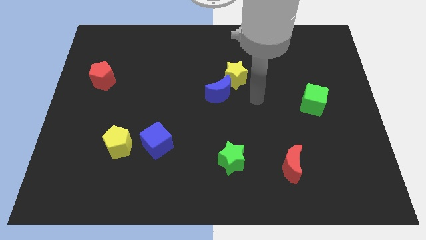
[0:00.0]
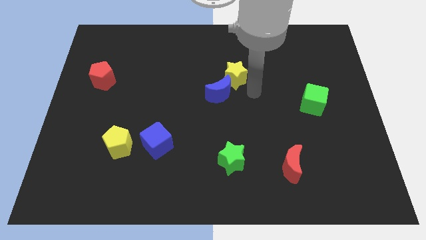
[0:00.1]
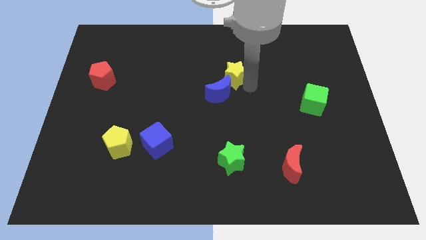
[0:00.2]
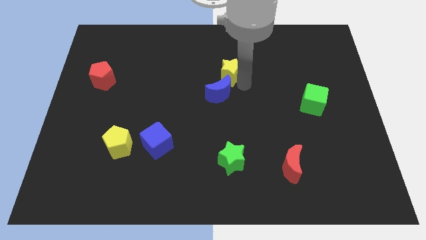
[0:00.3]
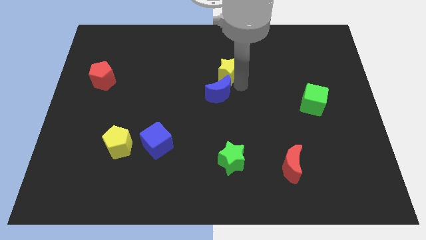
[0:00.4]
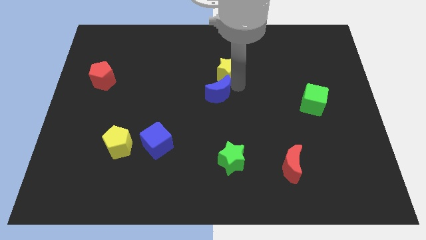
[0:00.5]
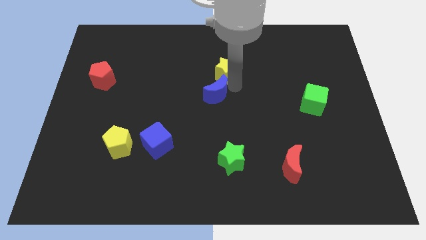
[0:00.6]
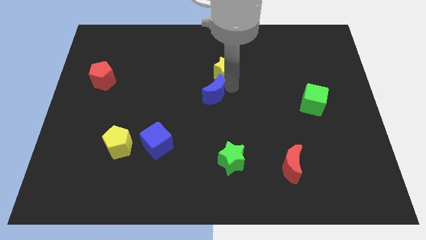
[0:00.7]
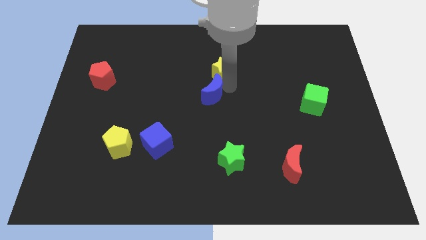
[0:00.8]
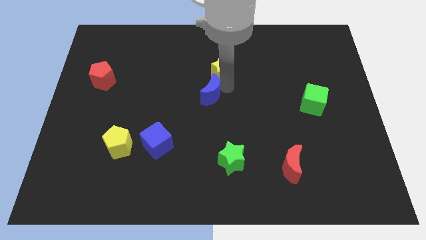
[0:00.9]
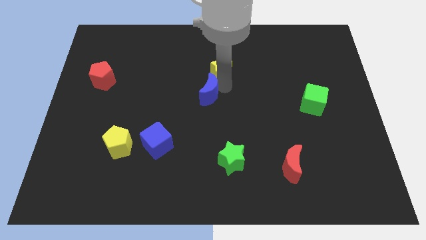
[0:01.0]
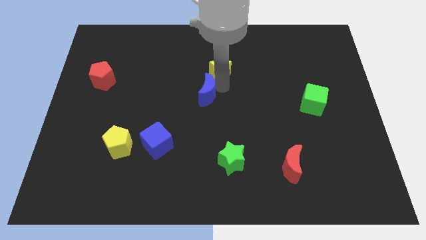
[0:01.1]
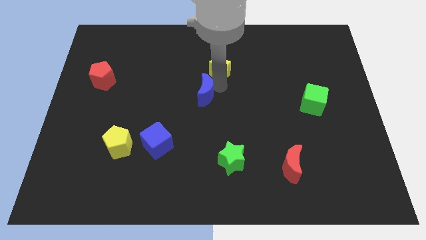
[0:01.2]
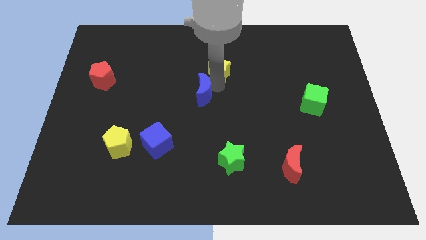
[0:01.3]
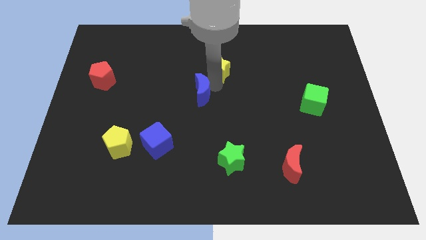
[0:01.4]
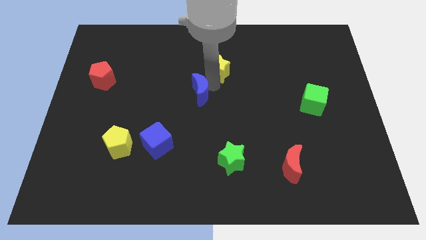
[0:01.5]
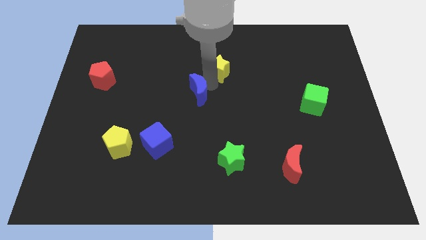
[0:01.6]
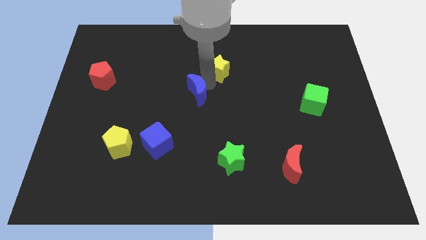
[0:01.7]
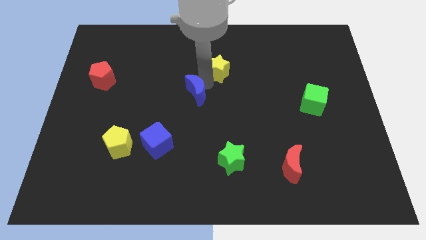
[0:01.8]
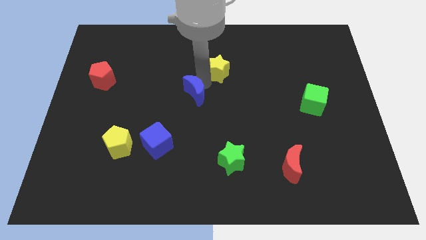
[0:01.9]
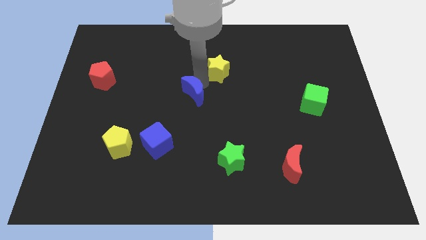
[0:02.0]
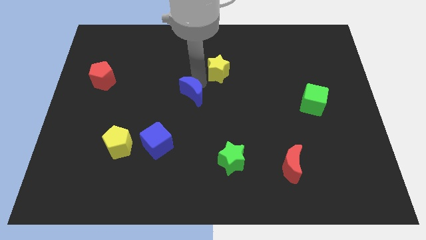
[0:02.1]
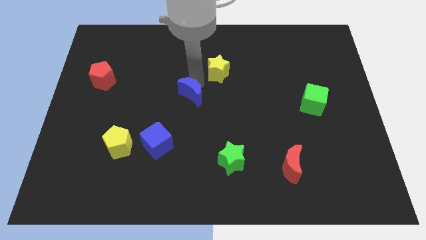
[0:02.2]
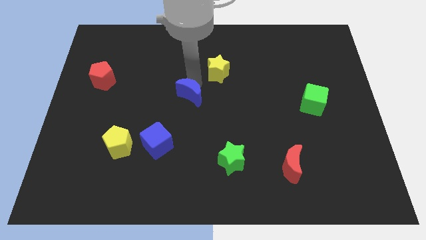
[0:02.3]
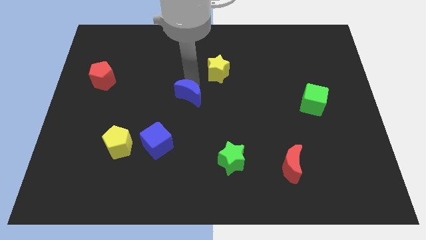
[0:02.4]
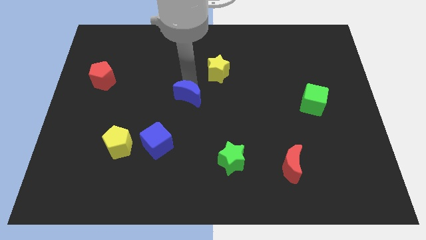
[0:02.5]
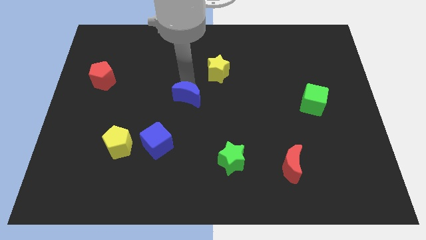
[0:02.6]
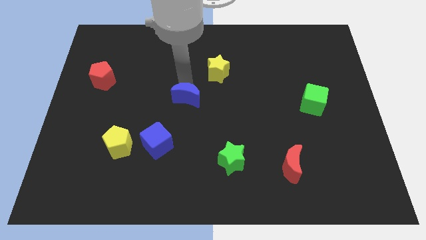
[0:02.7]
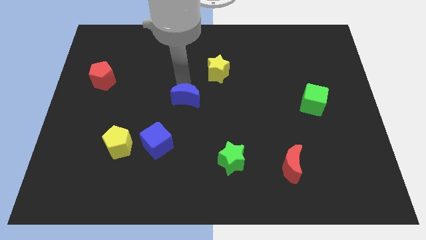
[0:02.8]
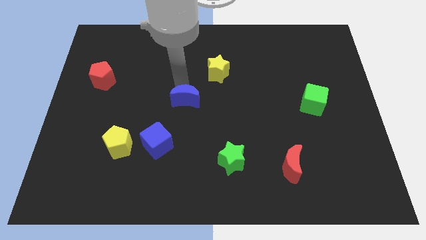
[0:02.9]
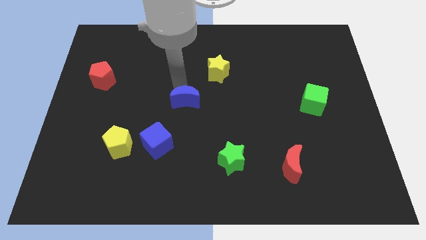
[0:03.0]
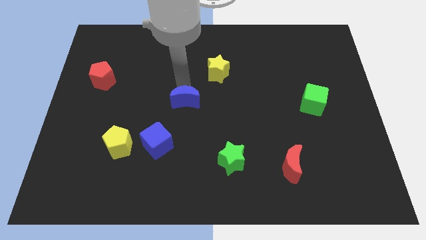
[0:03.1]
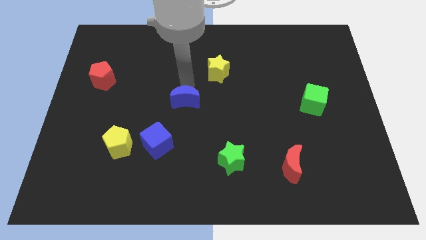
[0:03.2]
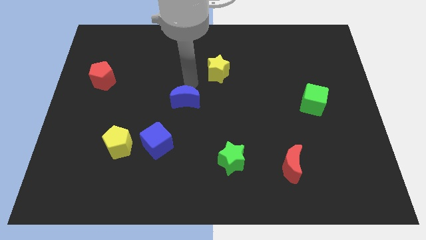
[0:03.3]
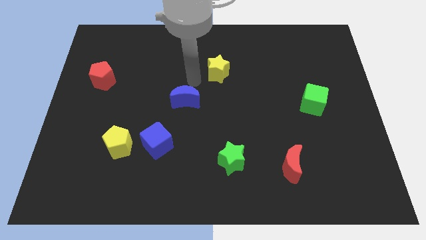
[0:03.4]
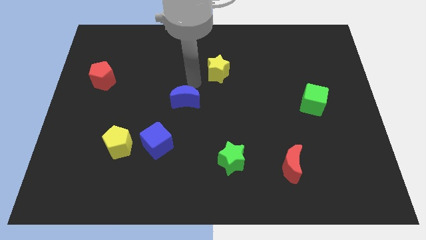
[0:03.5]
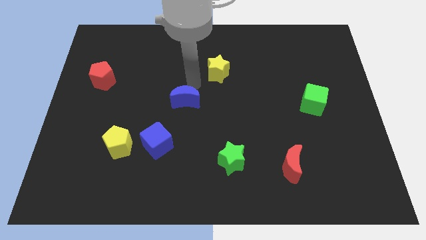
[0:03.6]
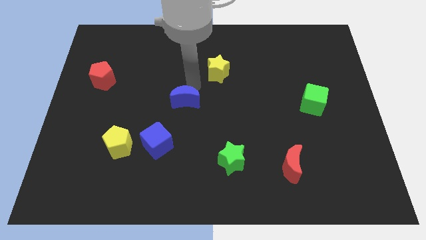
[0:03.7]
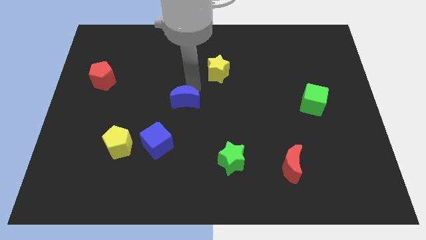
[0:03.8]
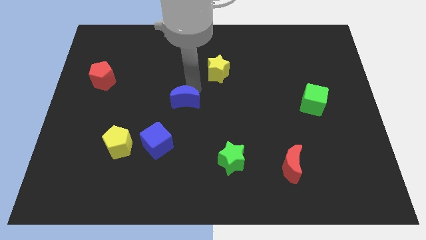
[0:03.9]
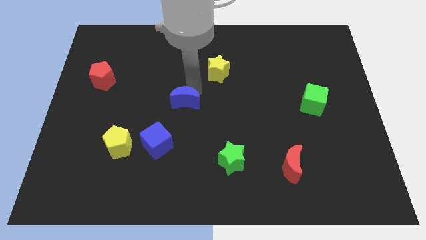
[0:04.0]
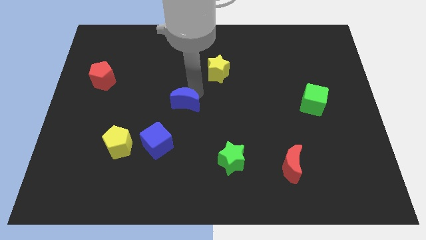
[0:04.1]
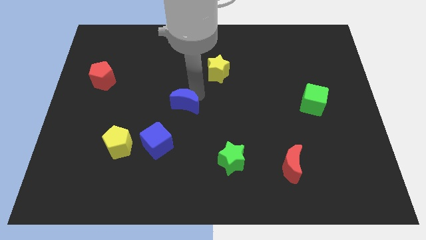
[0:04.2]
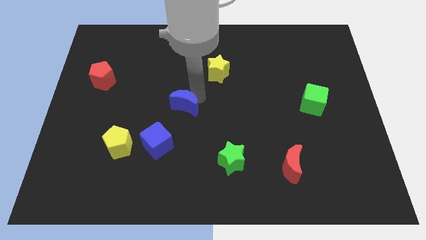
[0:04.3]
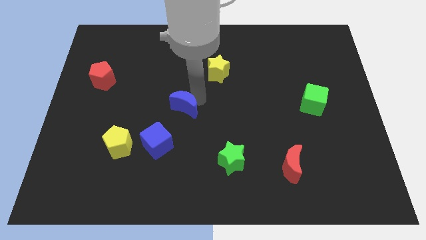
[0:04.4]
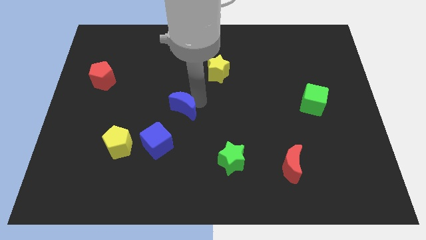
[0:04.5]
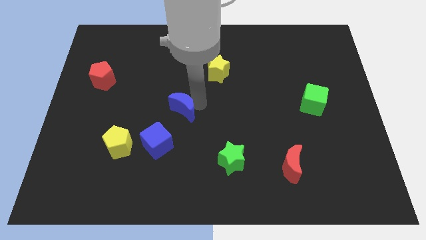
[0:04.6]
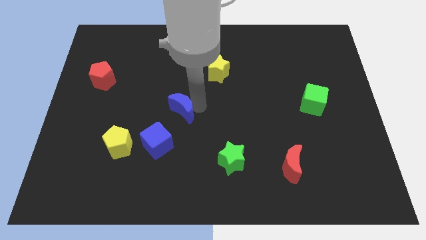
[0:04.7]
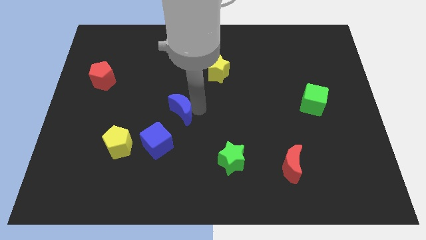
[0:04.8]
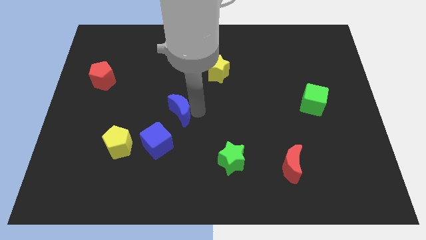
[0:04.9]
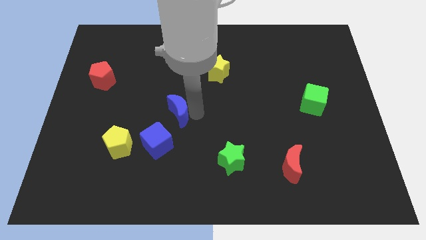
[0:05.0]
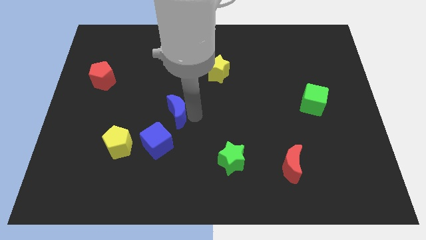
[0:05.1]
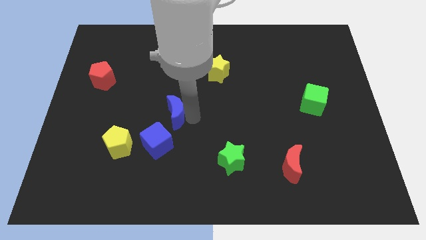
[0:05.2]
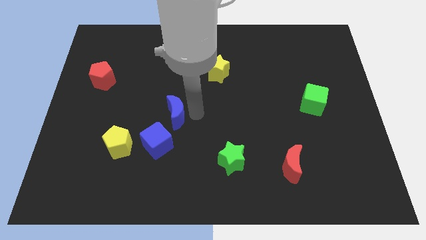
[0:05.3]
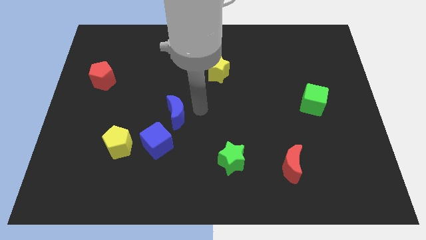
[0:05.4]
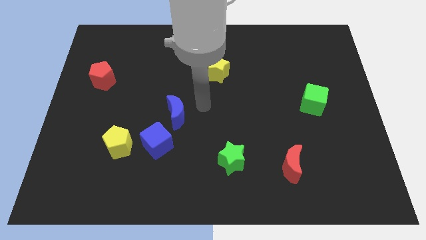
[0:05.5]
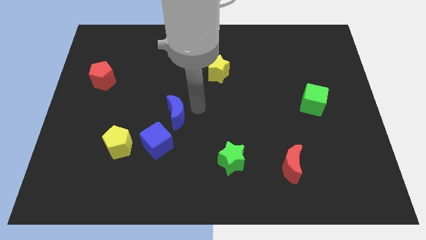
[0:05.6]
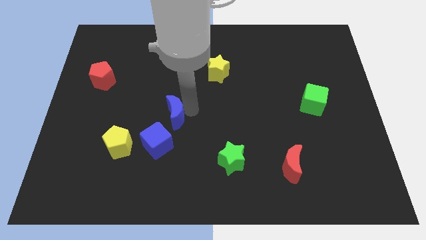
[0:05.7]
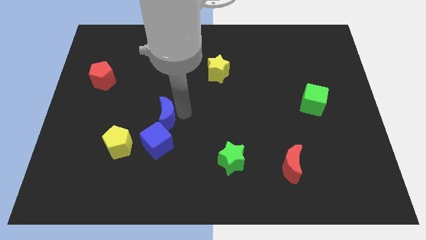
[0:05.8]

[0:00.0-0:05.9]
push the blue moon diagonally up and to the right of the yellow pentagon

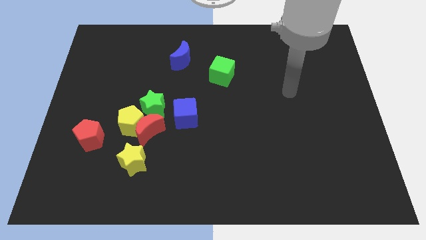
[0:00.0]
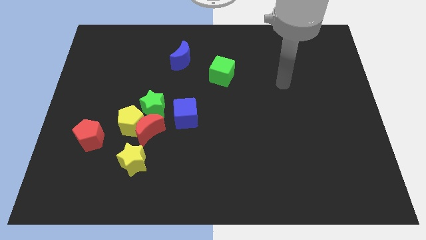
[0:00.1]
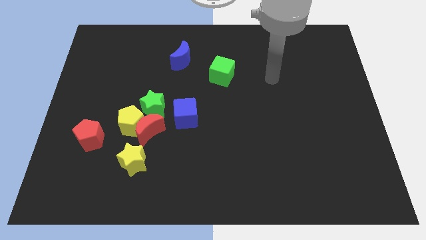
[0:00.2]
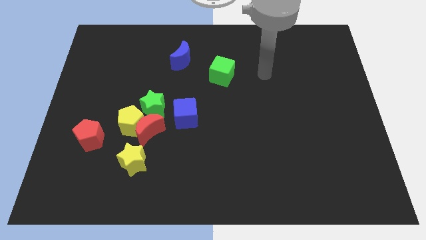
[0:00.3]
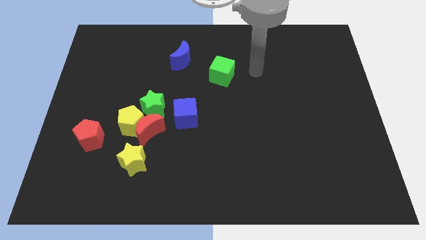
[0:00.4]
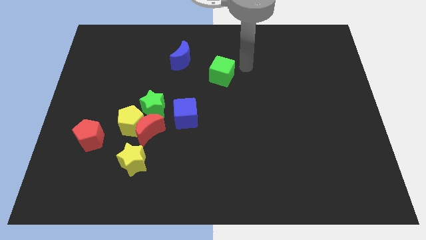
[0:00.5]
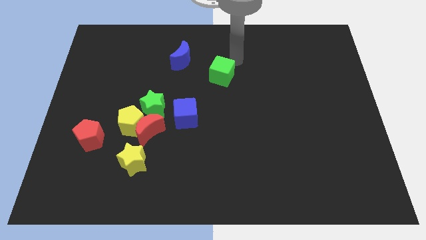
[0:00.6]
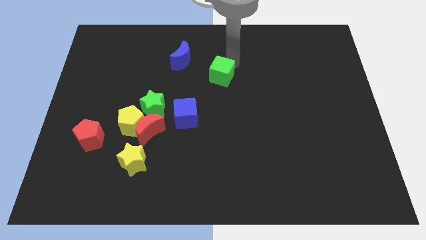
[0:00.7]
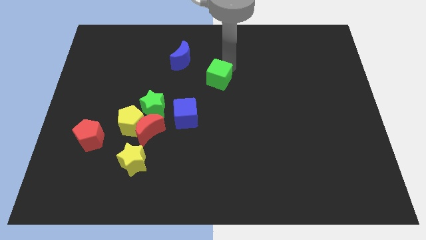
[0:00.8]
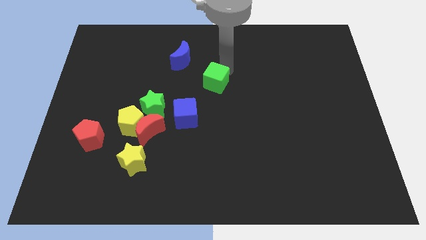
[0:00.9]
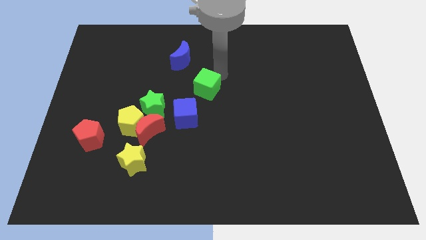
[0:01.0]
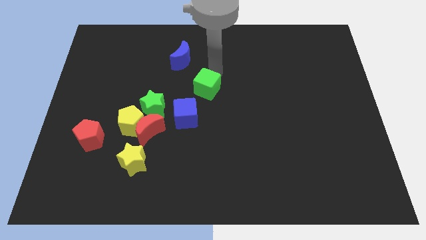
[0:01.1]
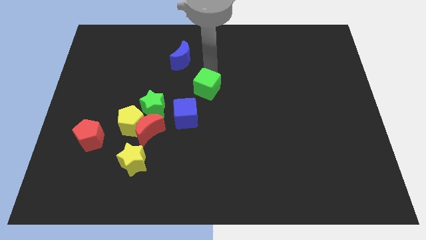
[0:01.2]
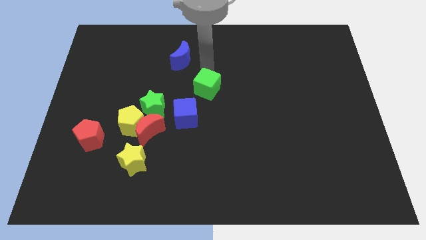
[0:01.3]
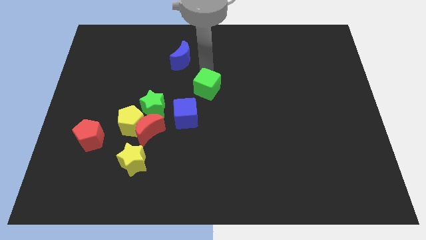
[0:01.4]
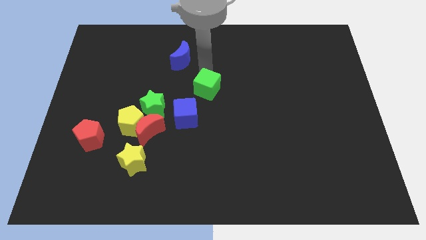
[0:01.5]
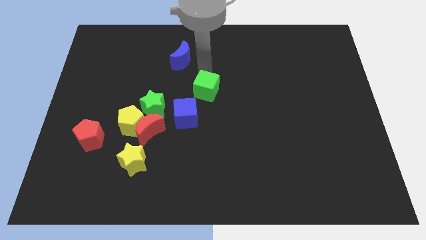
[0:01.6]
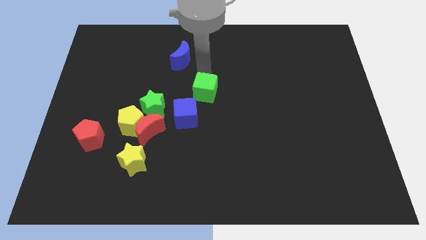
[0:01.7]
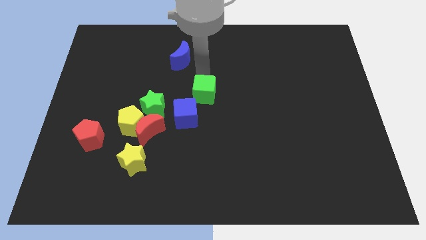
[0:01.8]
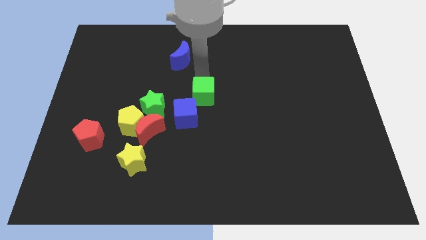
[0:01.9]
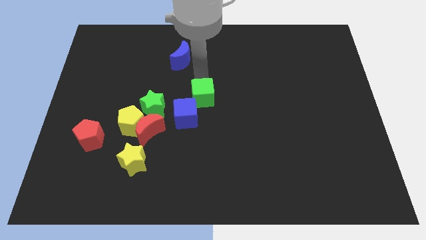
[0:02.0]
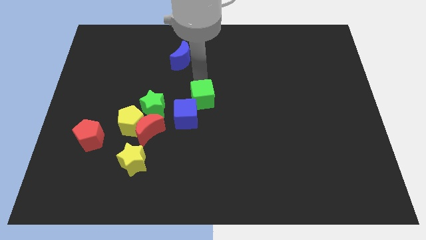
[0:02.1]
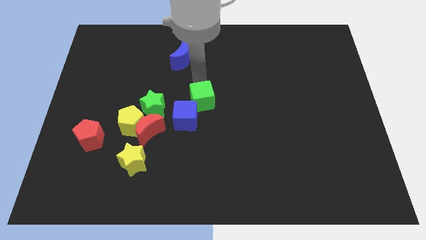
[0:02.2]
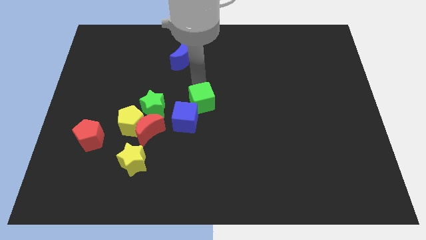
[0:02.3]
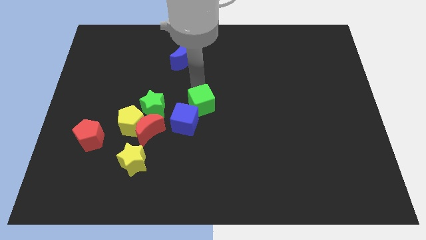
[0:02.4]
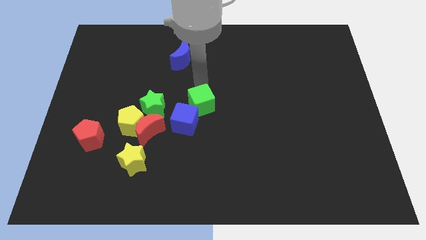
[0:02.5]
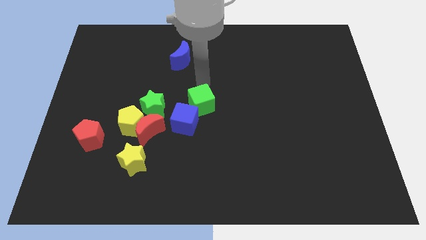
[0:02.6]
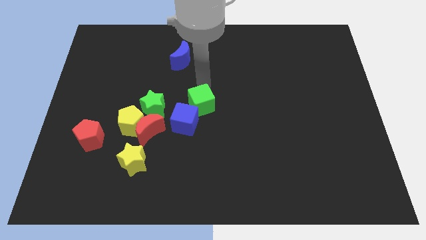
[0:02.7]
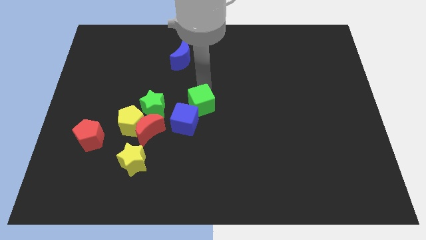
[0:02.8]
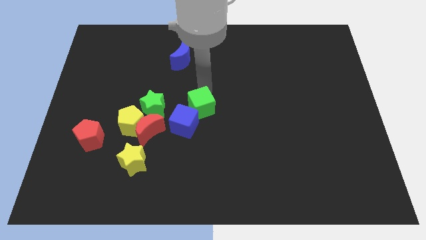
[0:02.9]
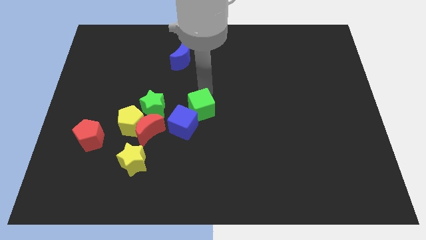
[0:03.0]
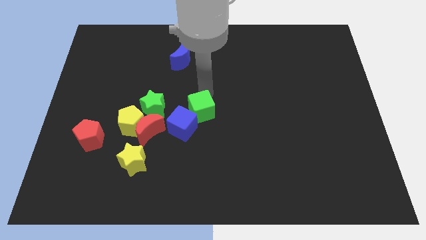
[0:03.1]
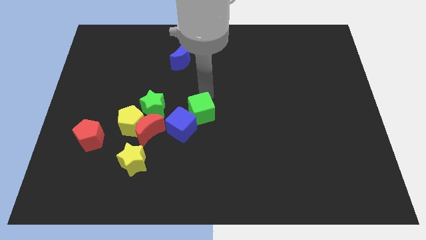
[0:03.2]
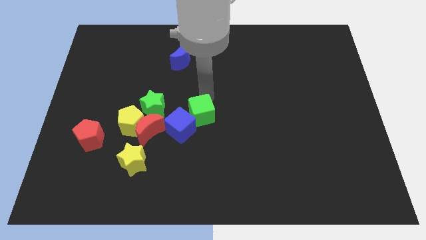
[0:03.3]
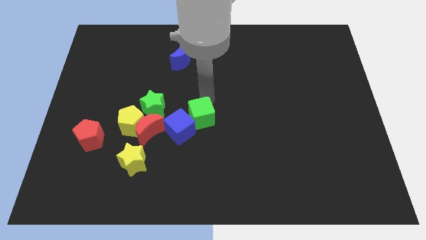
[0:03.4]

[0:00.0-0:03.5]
slide the green cube to the right of the yellow pentagon
